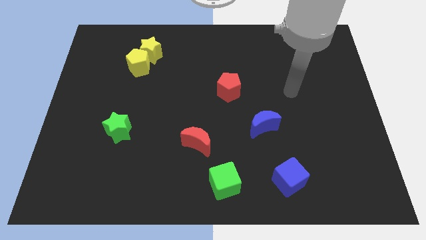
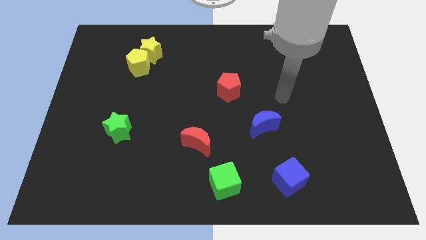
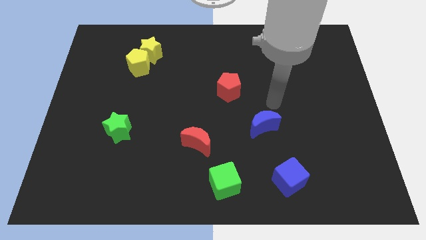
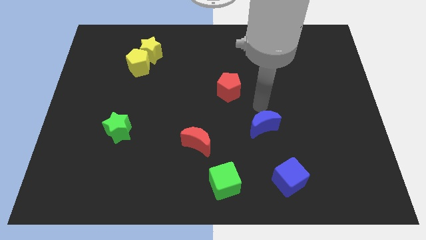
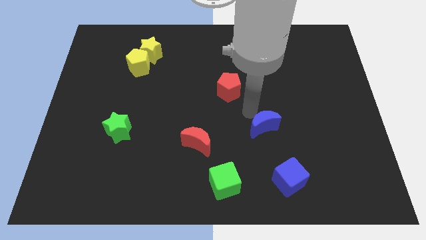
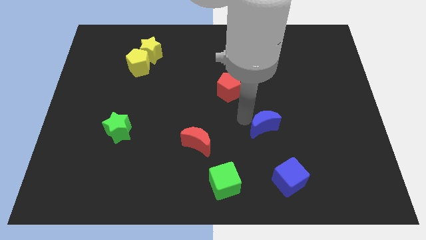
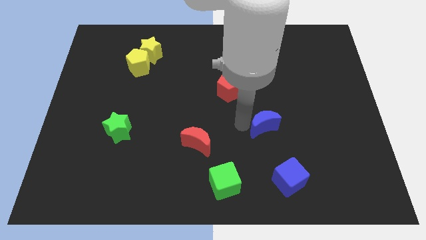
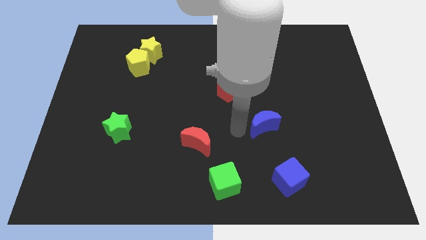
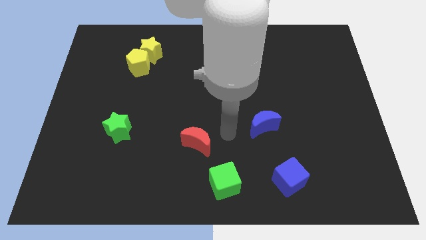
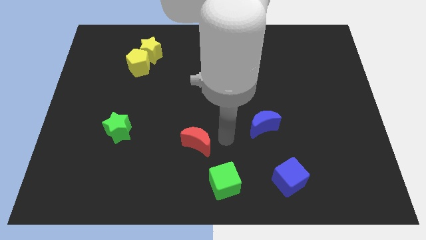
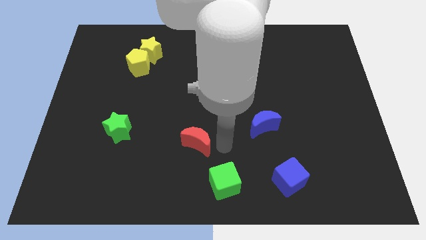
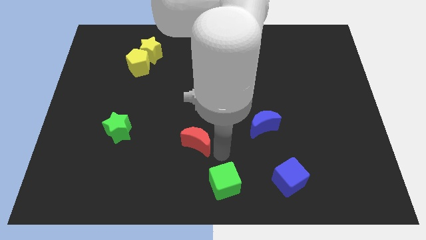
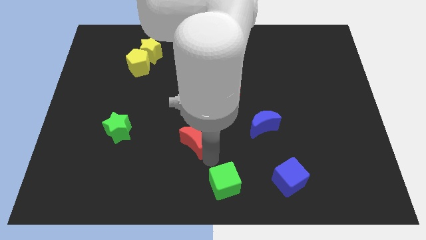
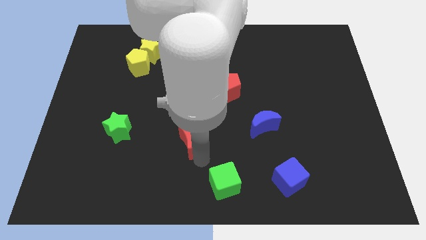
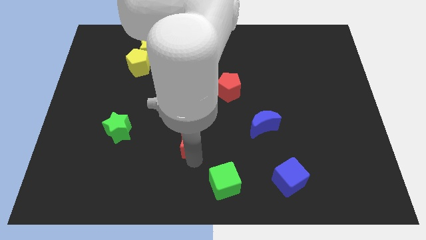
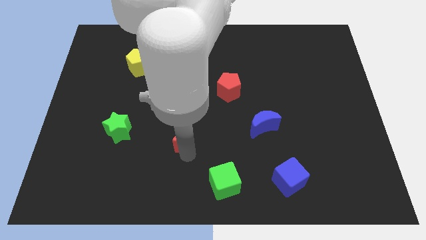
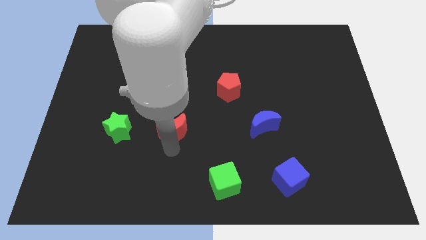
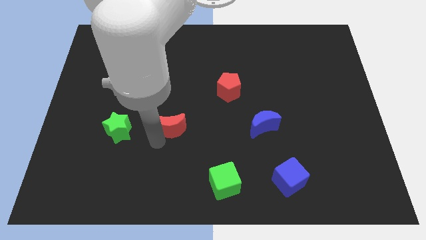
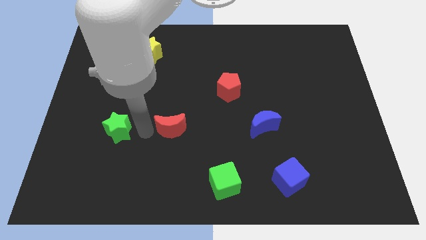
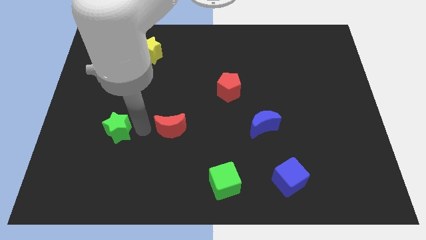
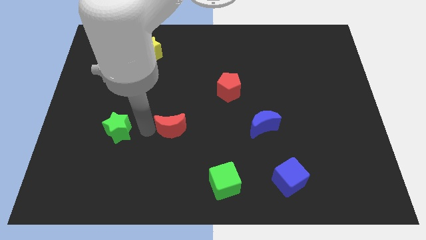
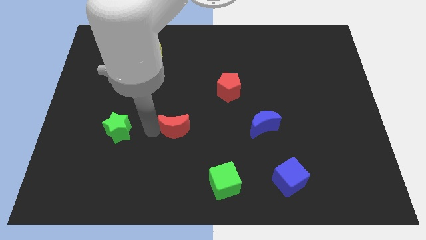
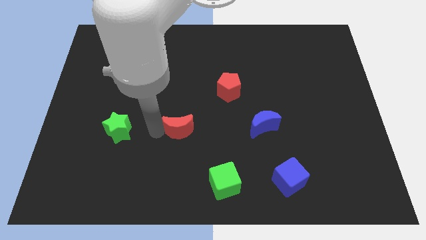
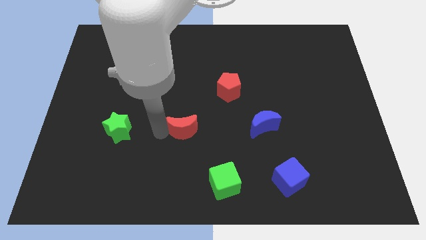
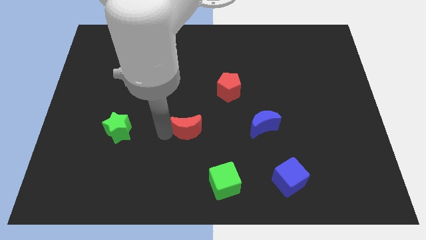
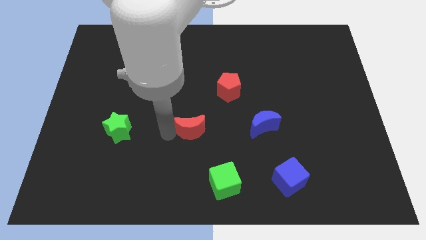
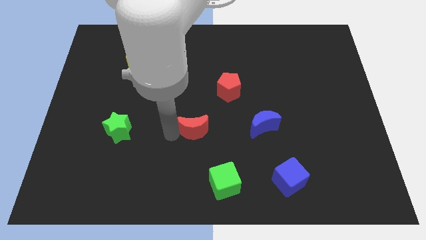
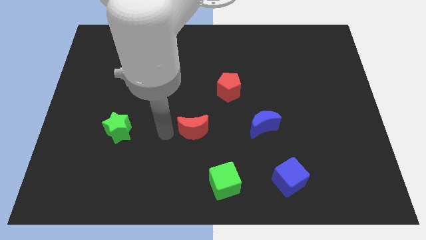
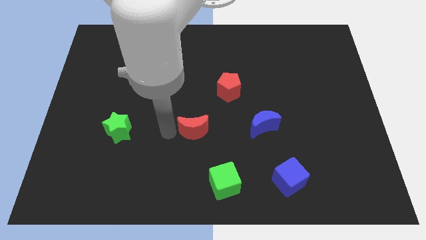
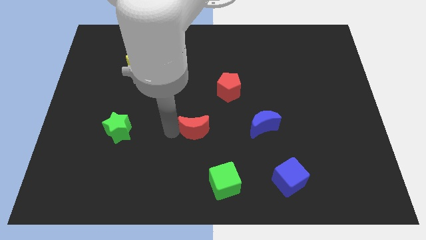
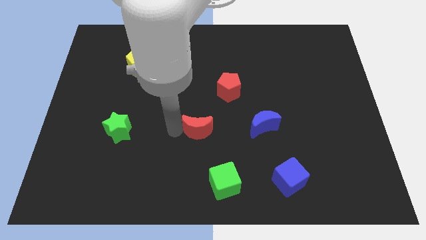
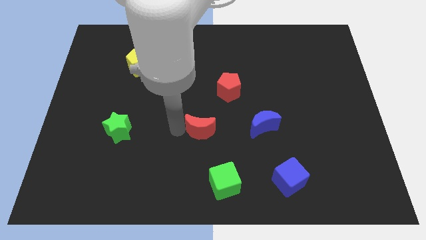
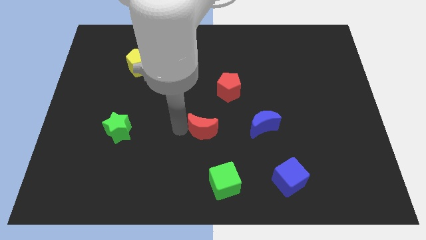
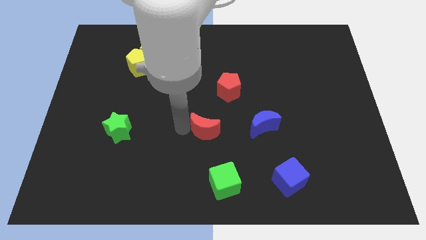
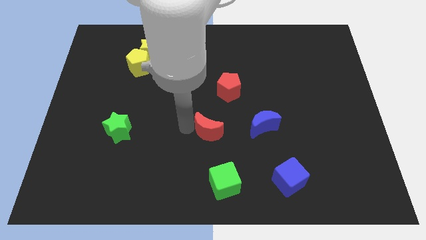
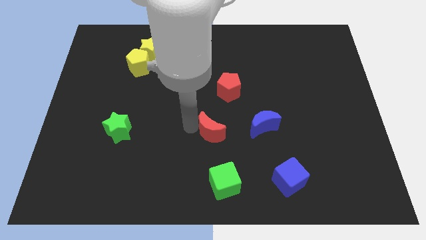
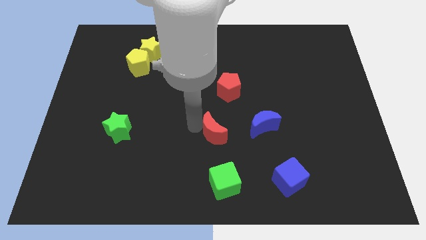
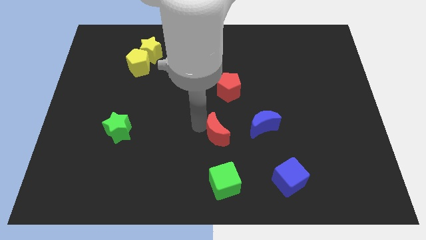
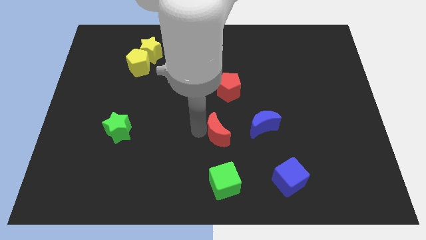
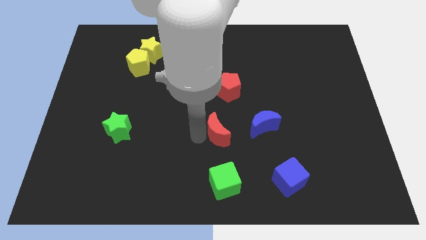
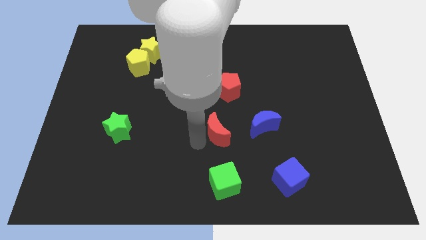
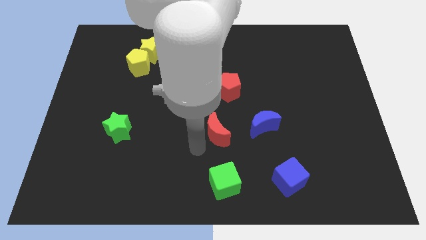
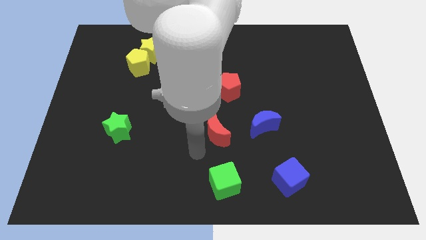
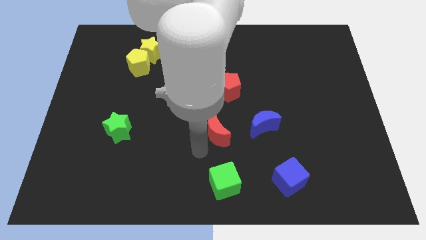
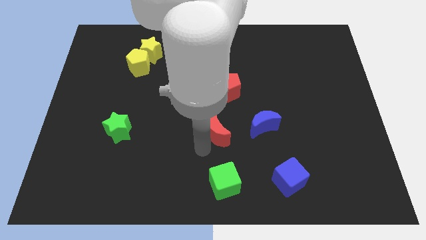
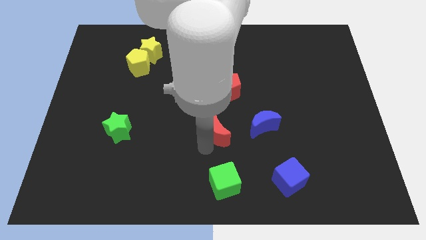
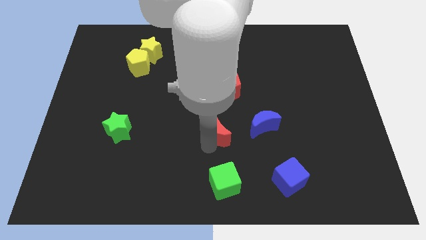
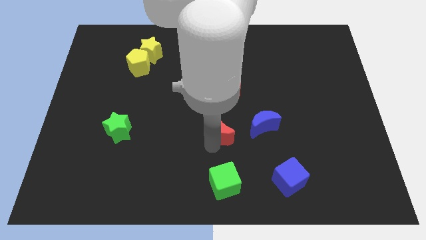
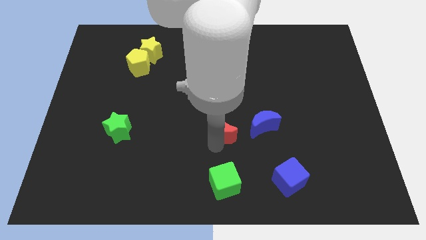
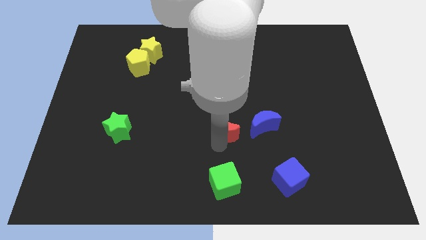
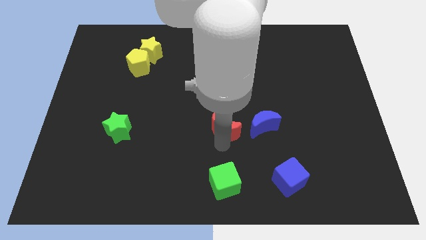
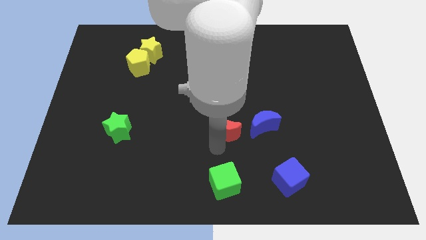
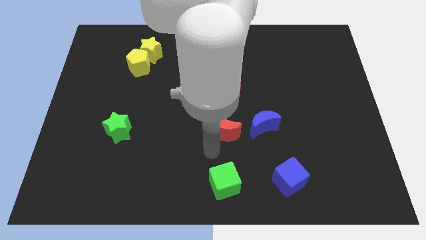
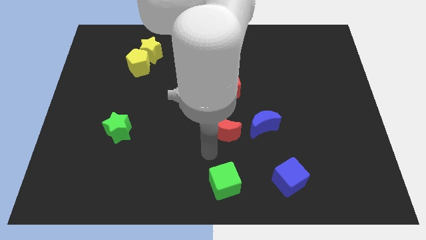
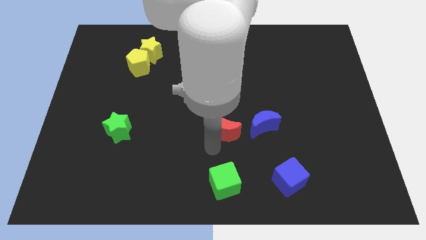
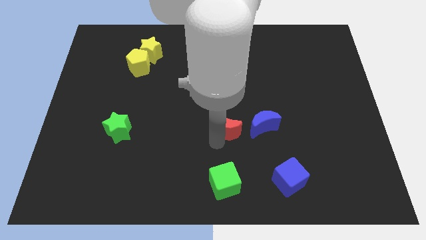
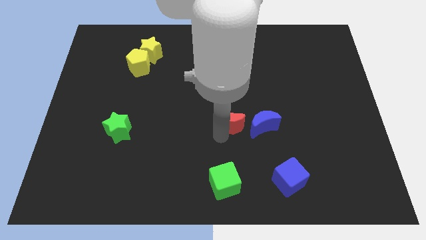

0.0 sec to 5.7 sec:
slide the red moon a little bit diagonally up and to the right

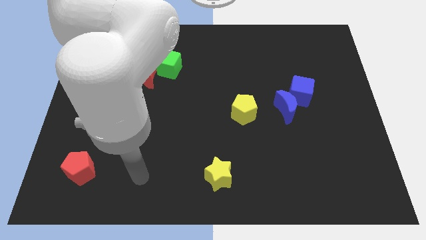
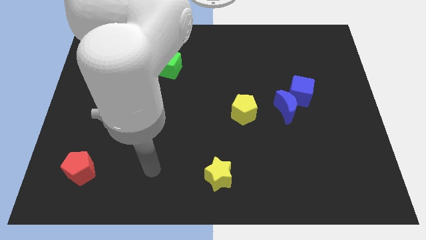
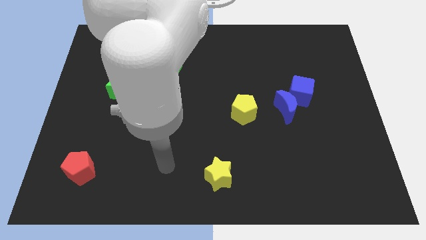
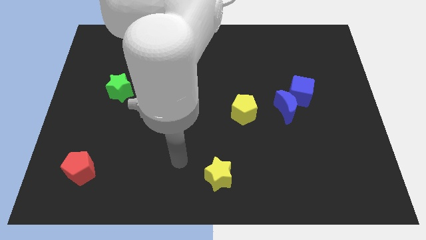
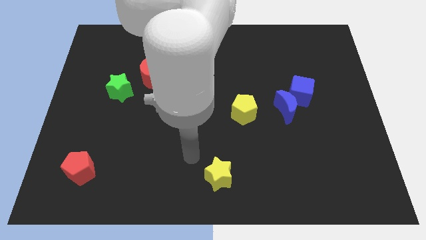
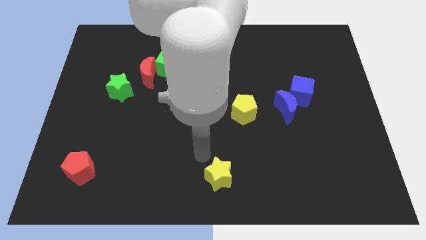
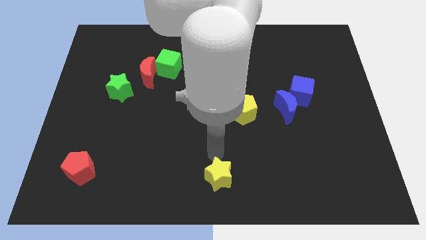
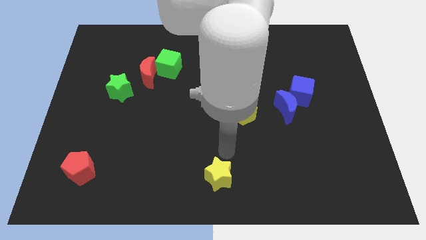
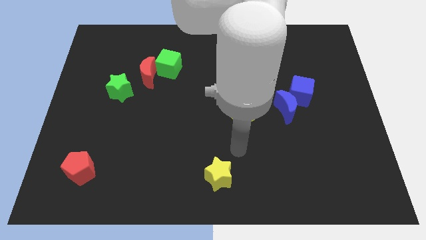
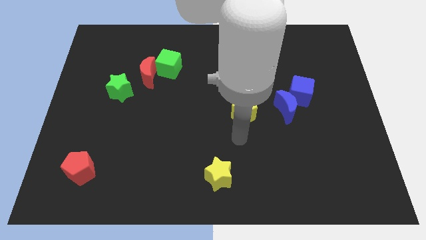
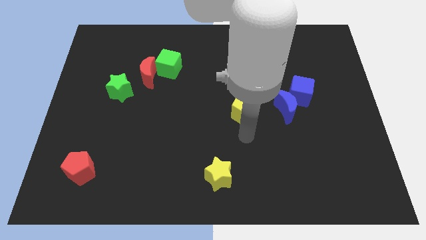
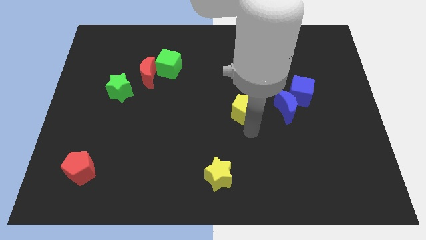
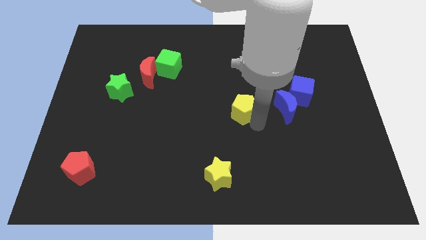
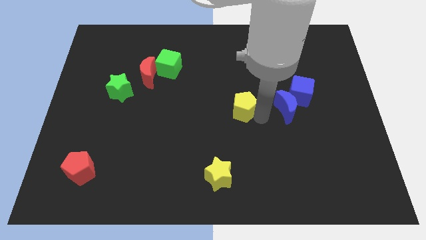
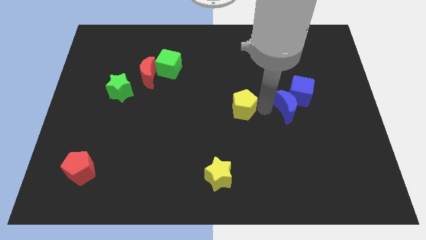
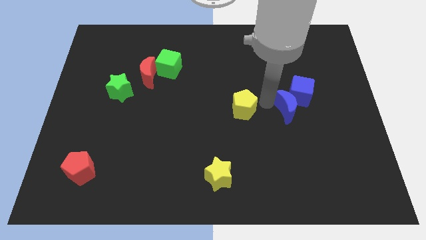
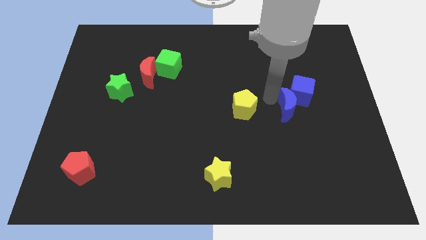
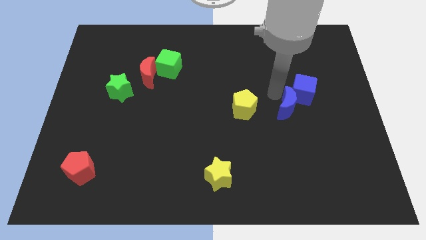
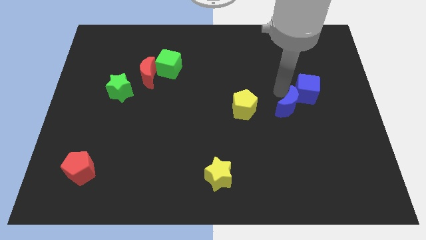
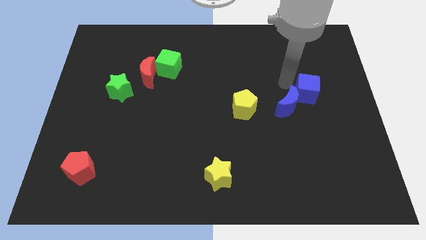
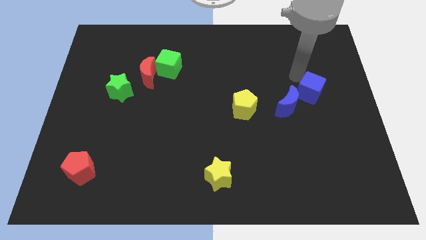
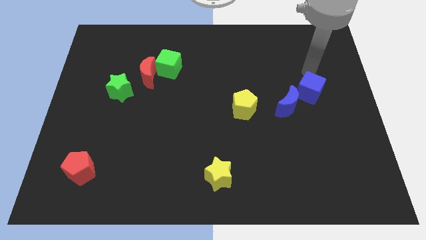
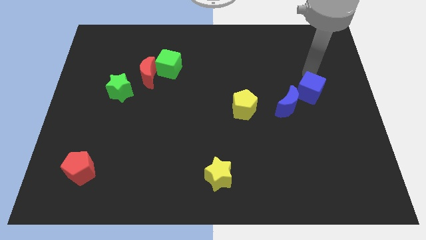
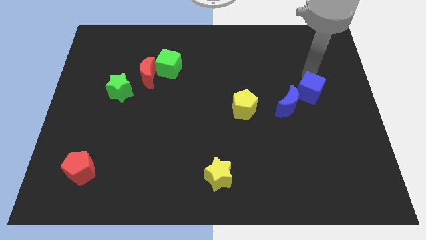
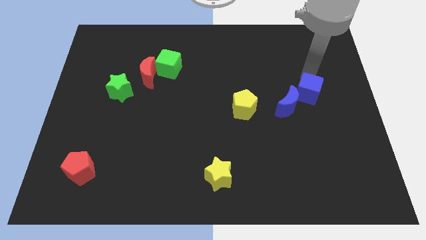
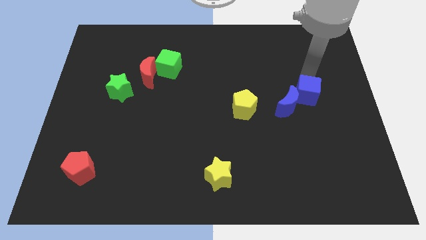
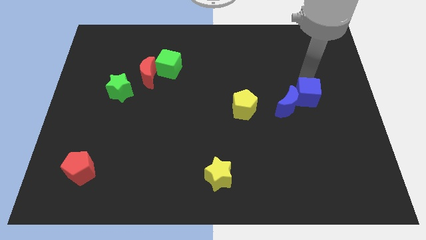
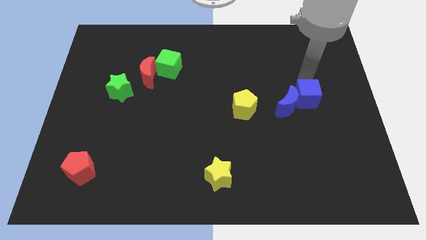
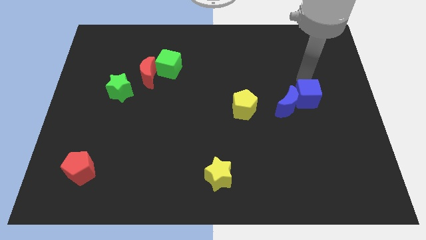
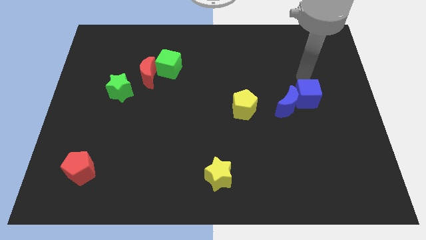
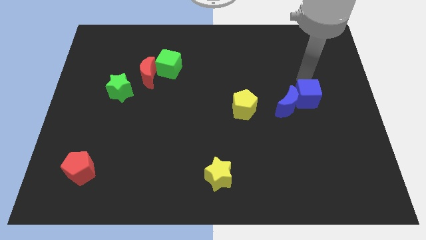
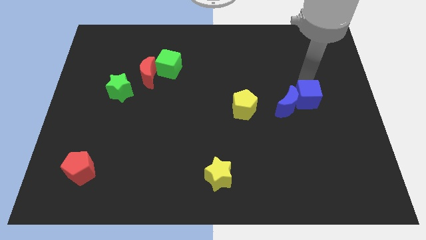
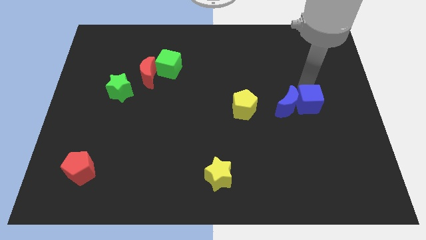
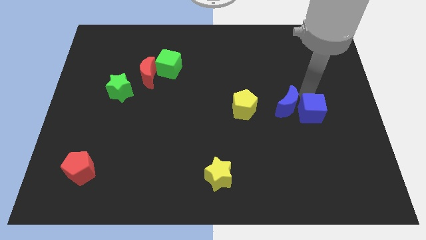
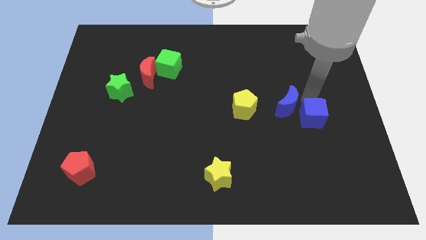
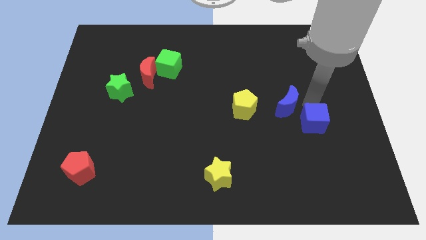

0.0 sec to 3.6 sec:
push the blue cube a bit down
